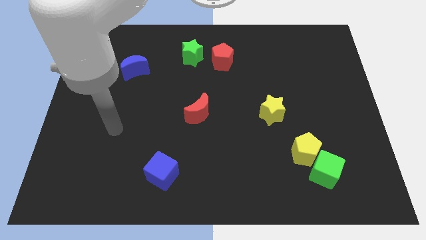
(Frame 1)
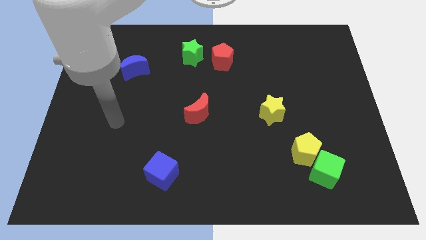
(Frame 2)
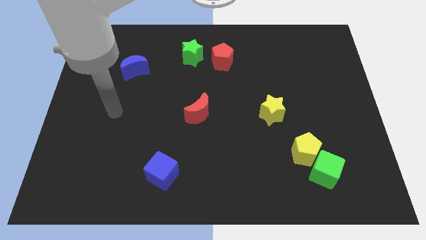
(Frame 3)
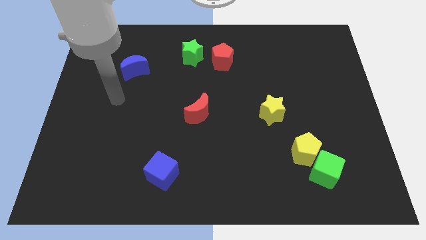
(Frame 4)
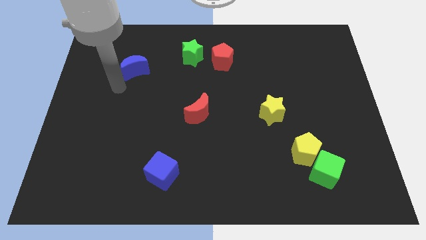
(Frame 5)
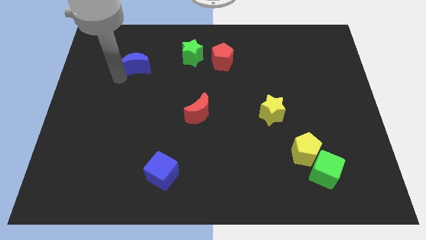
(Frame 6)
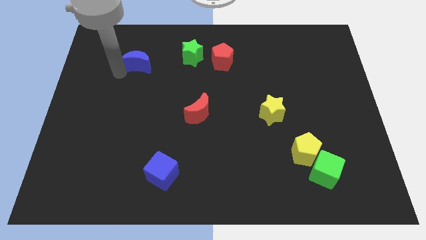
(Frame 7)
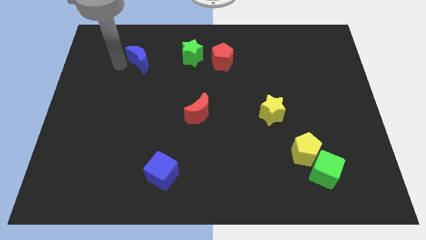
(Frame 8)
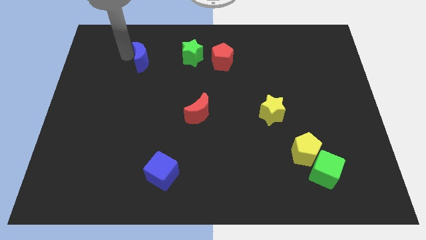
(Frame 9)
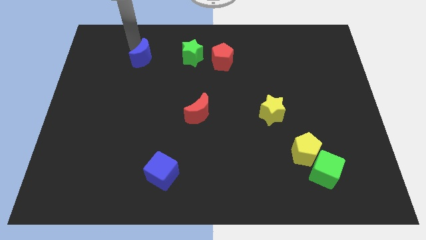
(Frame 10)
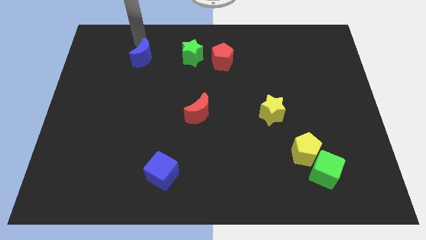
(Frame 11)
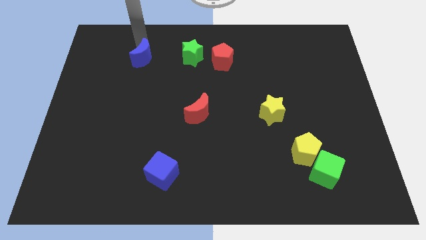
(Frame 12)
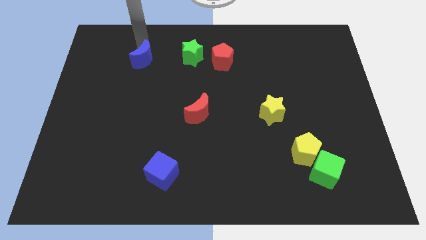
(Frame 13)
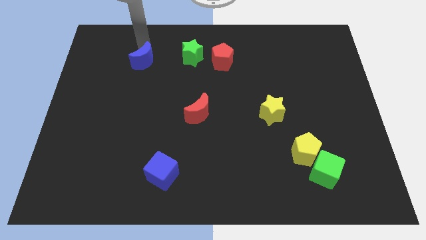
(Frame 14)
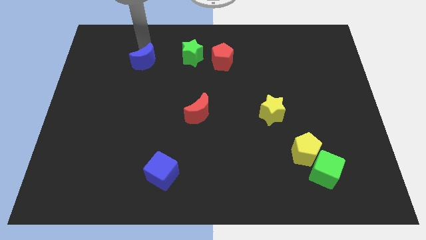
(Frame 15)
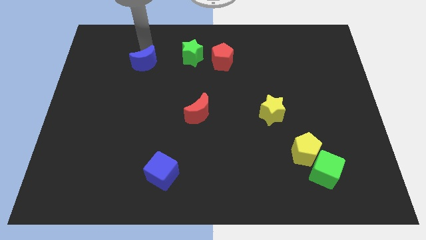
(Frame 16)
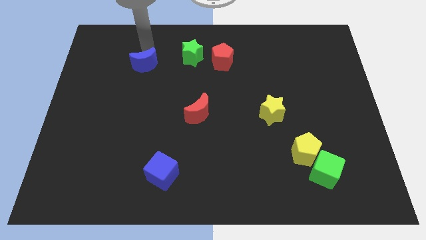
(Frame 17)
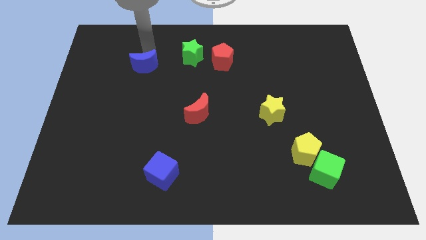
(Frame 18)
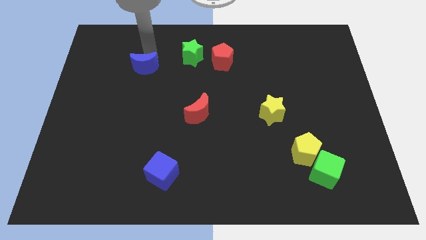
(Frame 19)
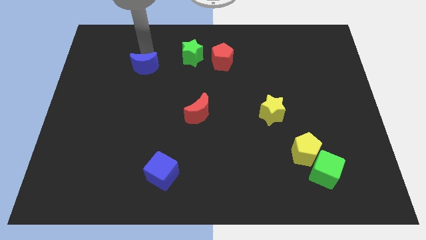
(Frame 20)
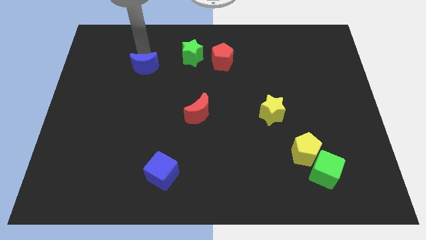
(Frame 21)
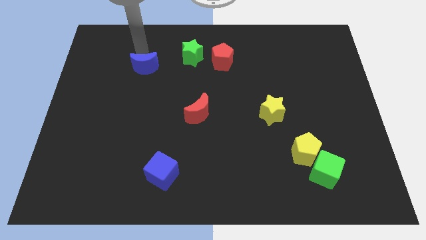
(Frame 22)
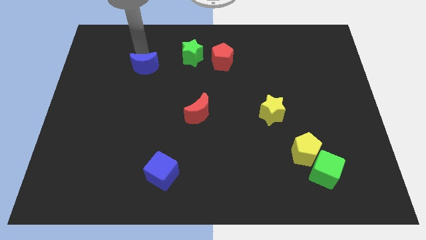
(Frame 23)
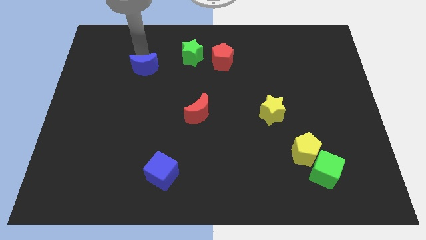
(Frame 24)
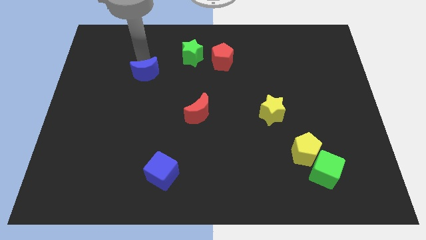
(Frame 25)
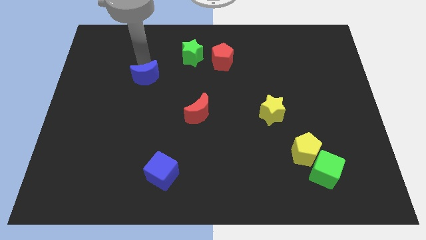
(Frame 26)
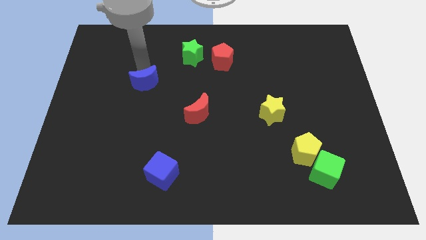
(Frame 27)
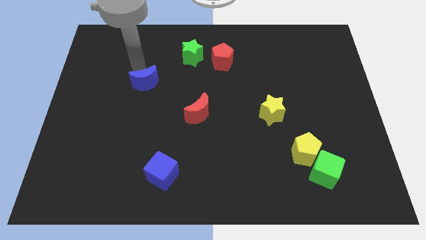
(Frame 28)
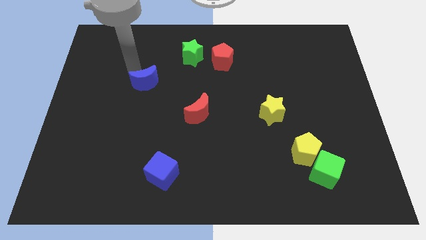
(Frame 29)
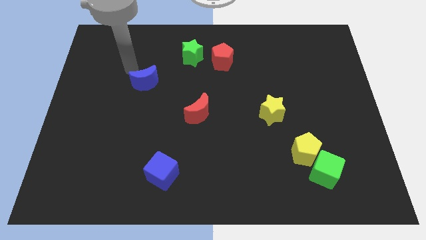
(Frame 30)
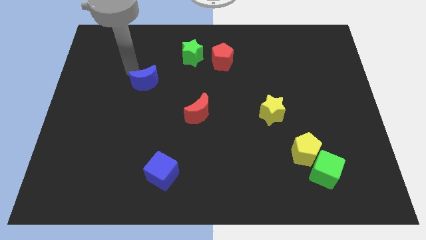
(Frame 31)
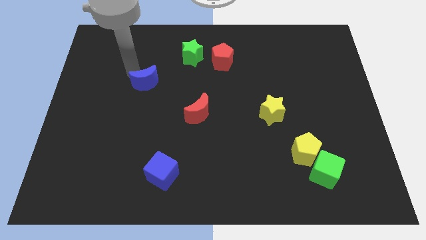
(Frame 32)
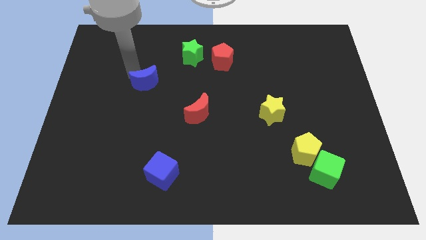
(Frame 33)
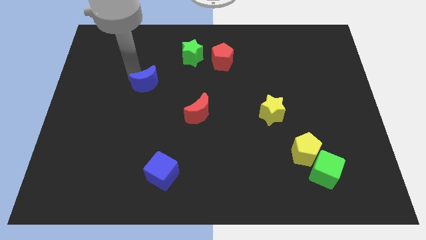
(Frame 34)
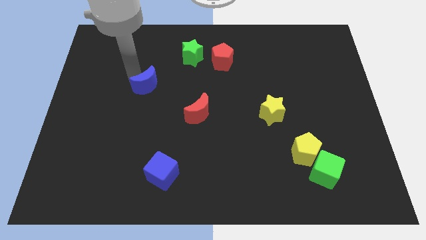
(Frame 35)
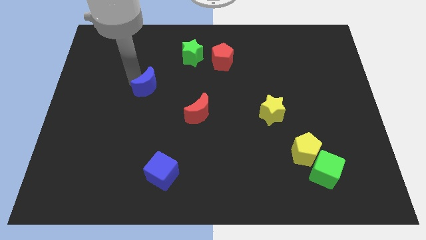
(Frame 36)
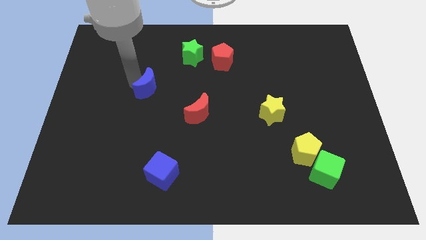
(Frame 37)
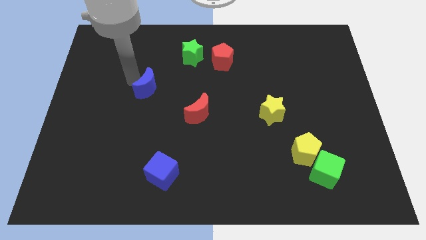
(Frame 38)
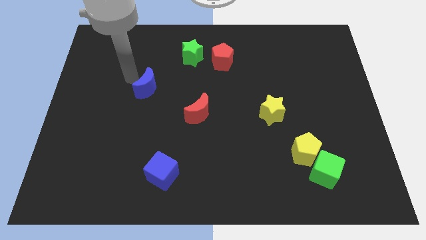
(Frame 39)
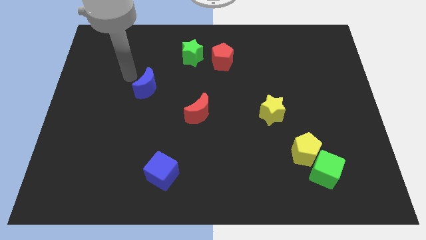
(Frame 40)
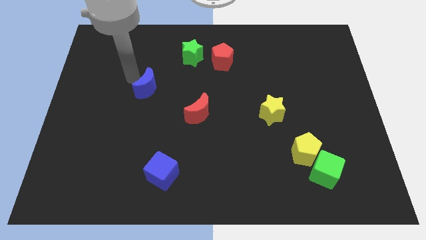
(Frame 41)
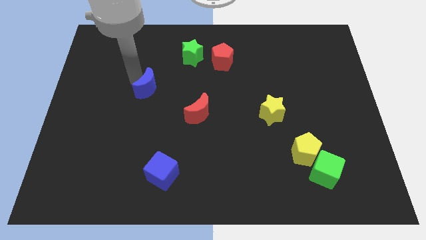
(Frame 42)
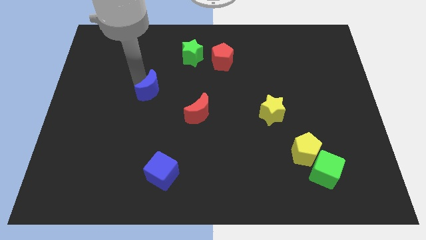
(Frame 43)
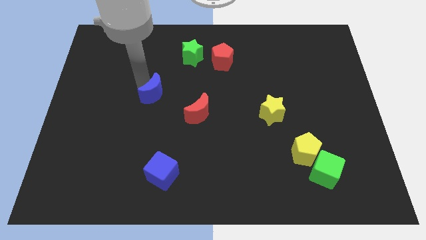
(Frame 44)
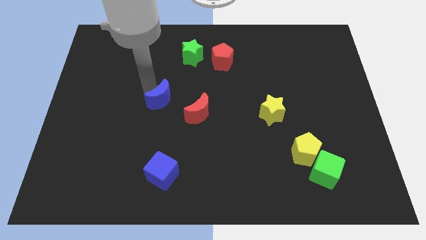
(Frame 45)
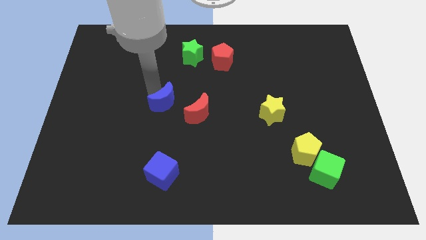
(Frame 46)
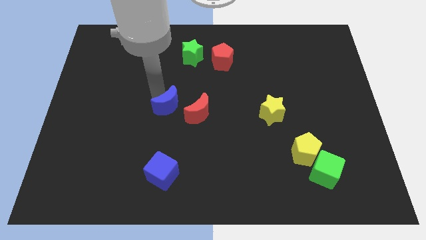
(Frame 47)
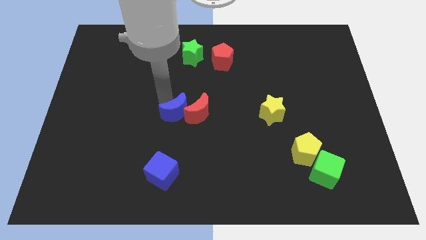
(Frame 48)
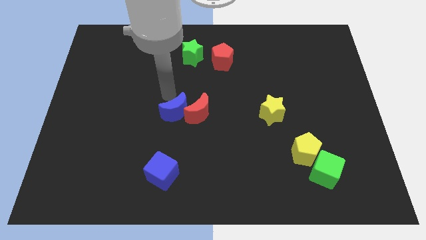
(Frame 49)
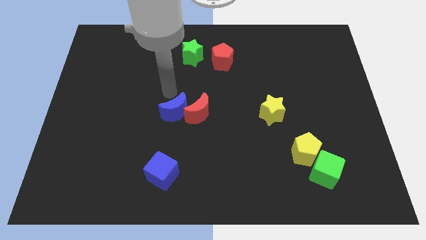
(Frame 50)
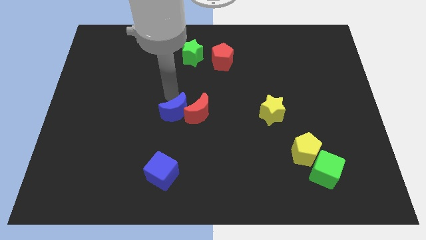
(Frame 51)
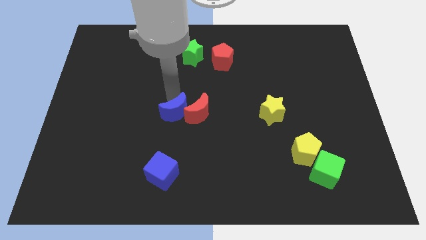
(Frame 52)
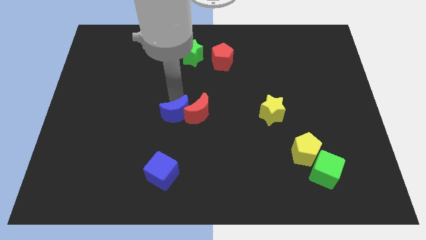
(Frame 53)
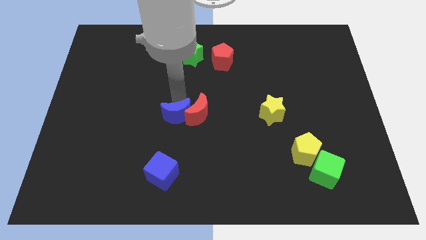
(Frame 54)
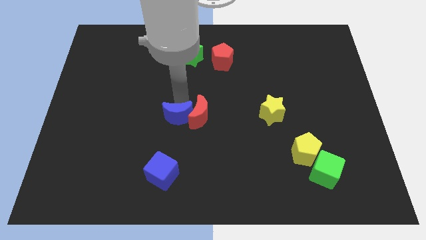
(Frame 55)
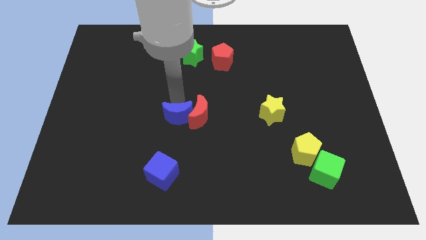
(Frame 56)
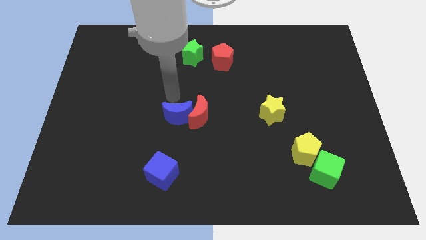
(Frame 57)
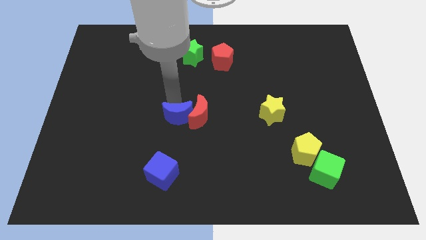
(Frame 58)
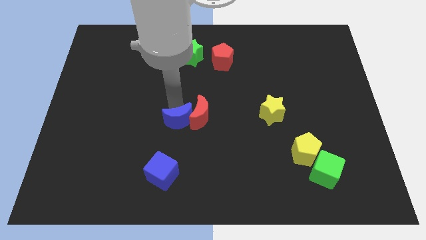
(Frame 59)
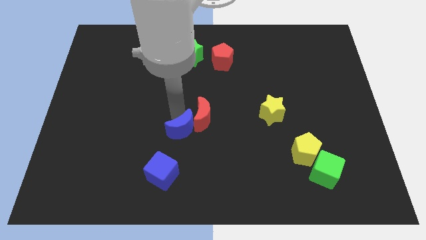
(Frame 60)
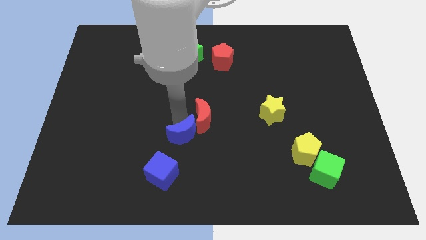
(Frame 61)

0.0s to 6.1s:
push the blue moon diagonally up and to the right of the blue cube

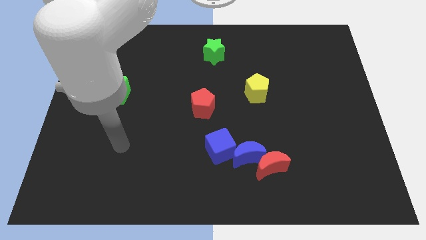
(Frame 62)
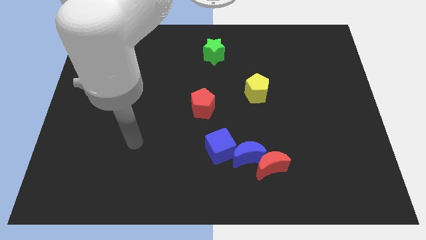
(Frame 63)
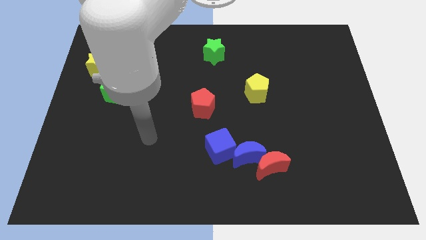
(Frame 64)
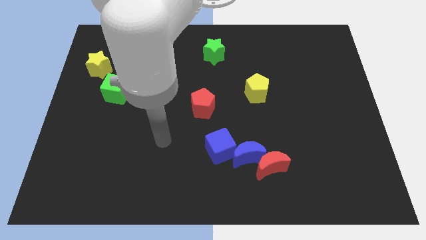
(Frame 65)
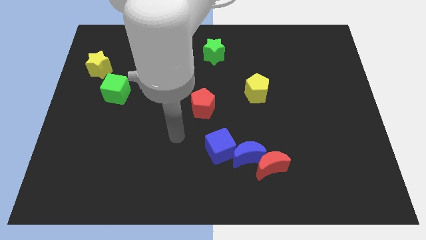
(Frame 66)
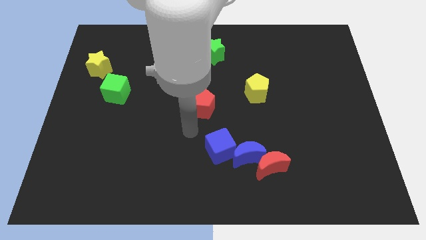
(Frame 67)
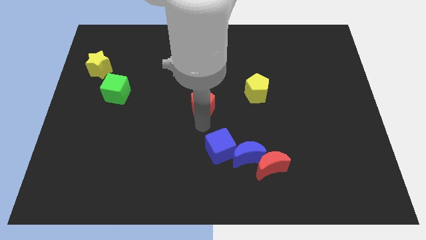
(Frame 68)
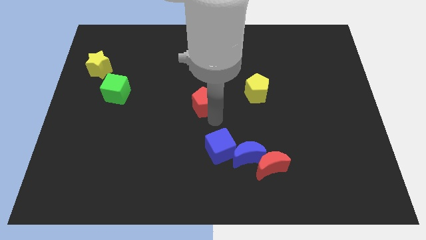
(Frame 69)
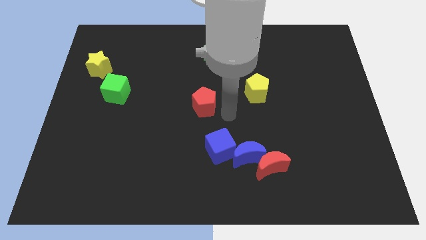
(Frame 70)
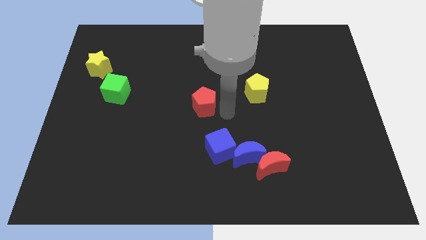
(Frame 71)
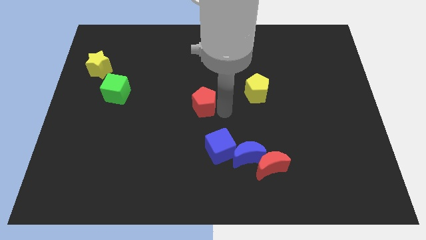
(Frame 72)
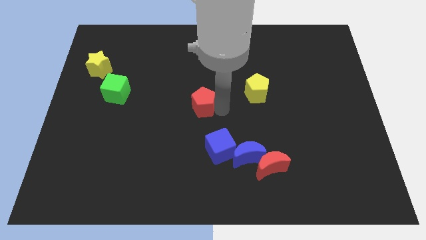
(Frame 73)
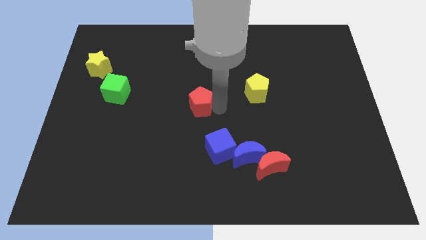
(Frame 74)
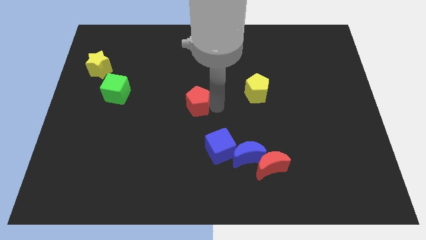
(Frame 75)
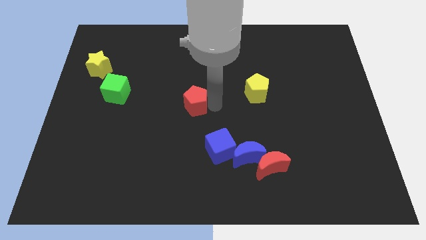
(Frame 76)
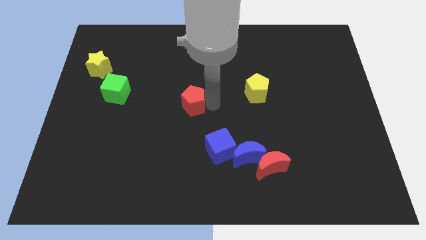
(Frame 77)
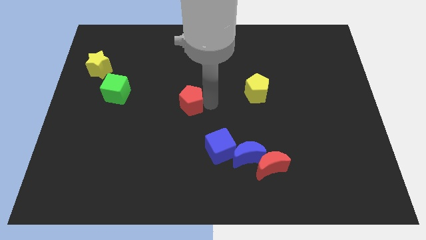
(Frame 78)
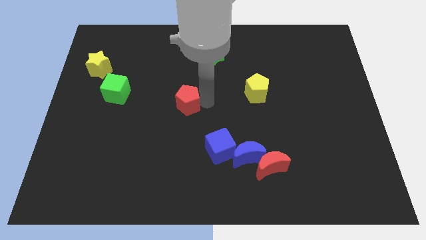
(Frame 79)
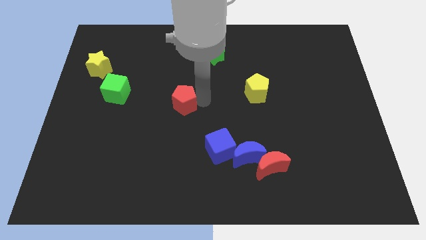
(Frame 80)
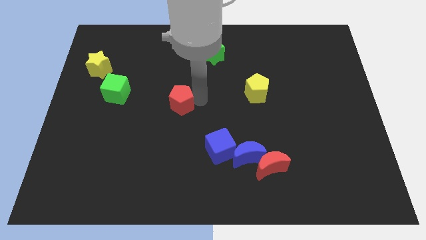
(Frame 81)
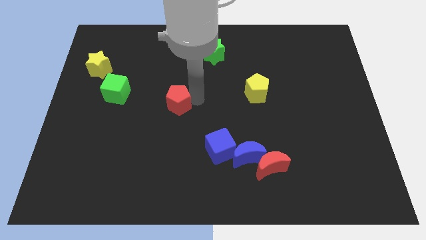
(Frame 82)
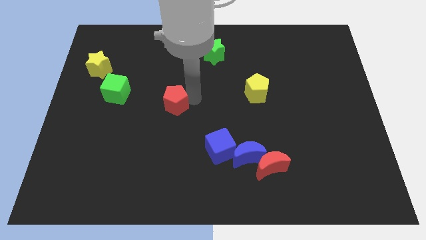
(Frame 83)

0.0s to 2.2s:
put the red pentagon to the right side of the green cube
